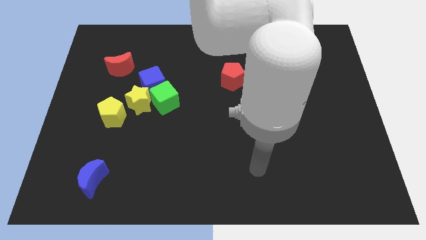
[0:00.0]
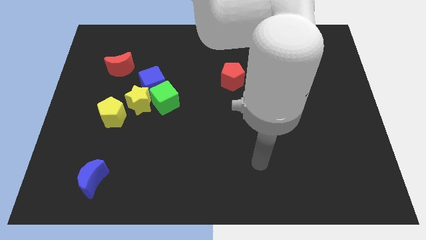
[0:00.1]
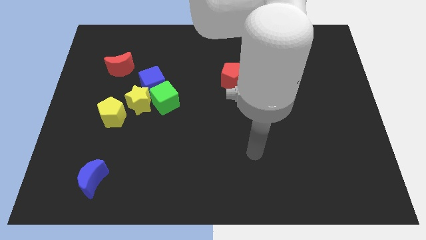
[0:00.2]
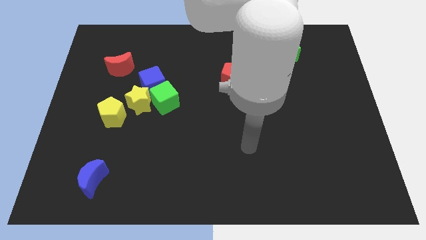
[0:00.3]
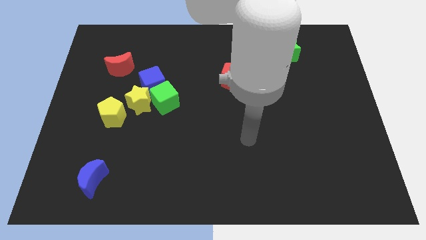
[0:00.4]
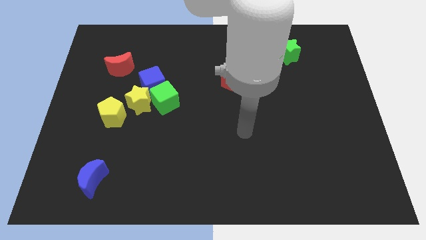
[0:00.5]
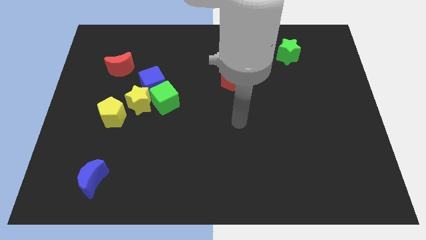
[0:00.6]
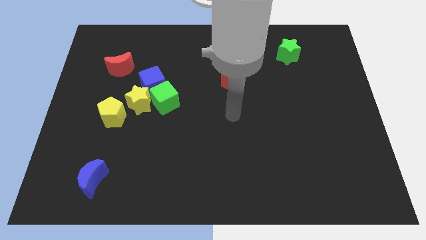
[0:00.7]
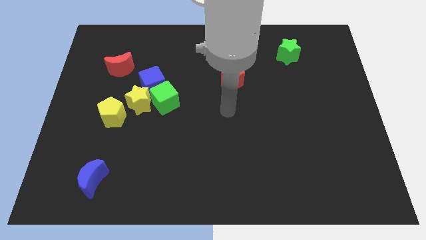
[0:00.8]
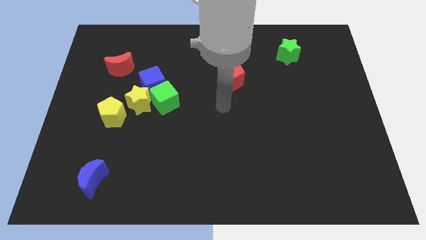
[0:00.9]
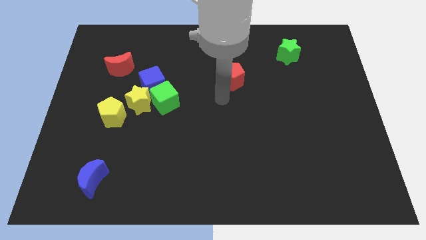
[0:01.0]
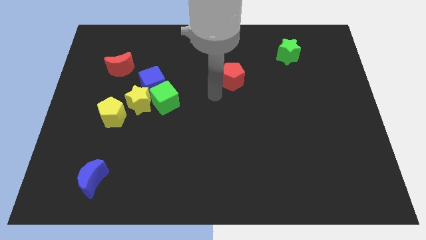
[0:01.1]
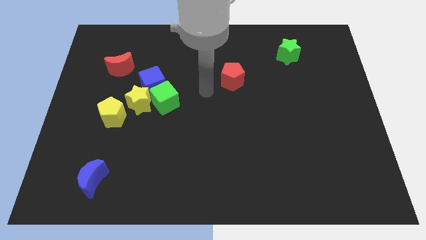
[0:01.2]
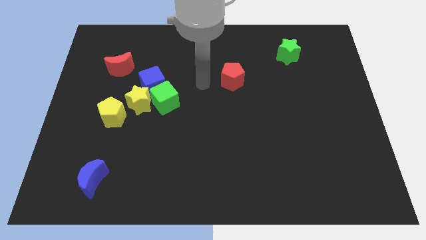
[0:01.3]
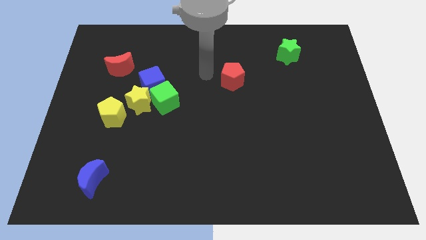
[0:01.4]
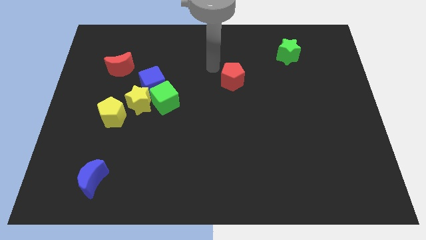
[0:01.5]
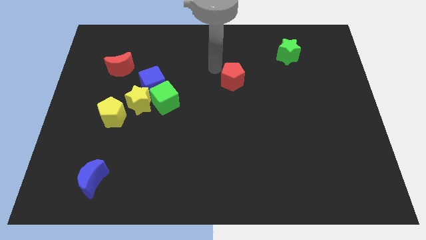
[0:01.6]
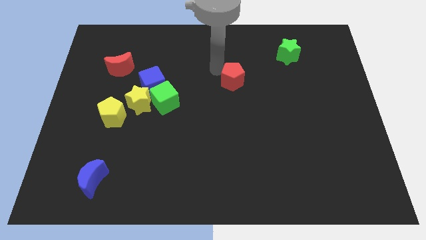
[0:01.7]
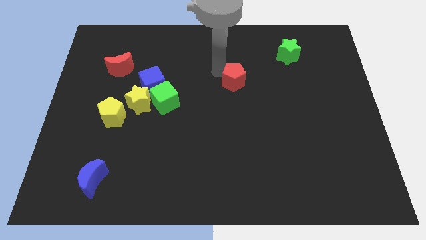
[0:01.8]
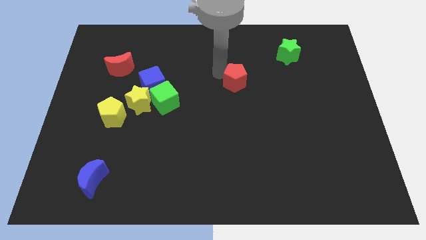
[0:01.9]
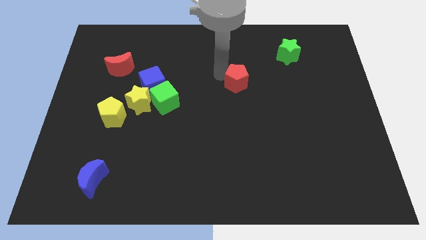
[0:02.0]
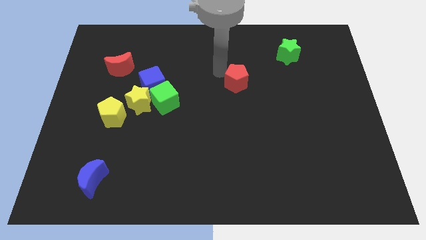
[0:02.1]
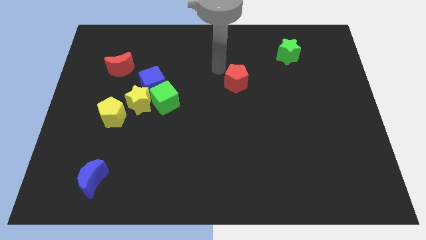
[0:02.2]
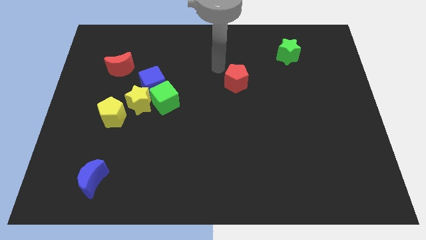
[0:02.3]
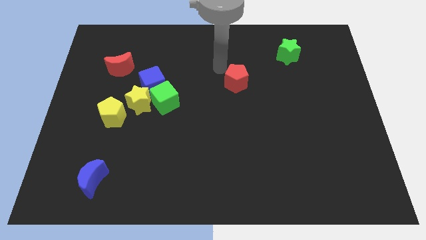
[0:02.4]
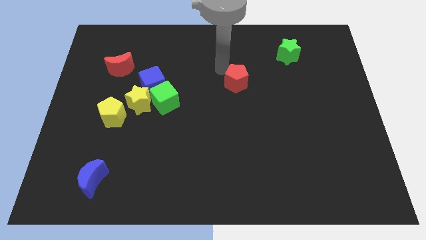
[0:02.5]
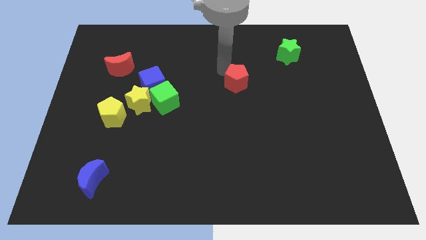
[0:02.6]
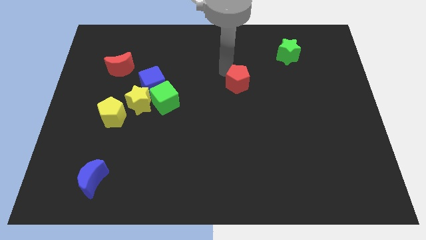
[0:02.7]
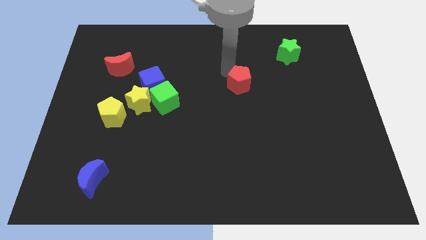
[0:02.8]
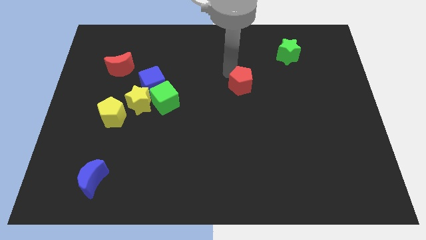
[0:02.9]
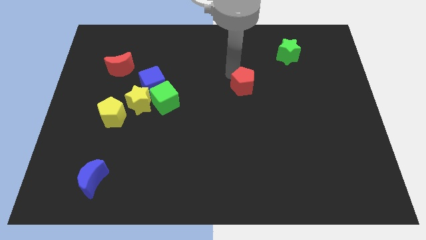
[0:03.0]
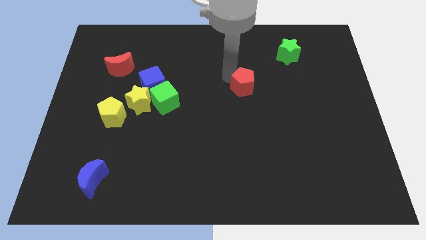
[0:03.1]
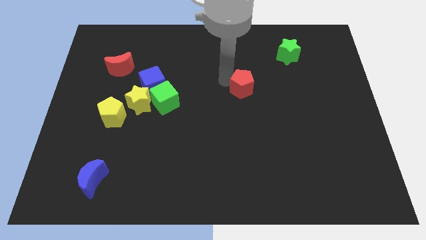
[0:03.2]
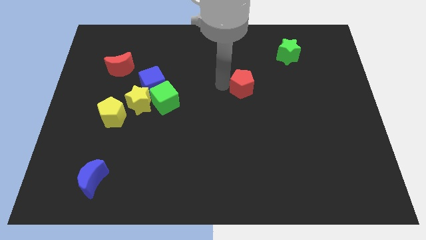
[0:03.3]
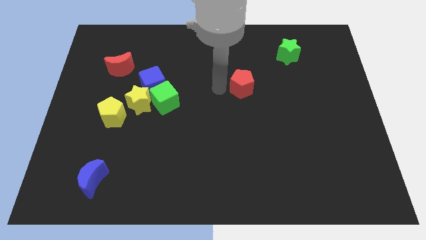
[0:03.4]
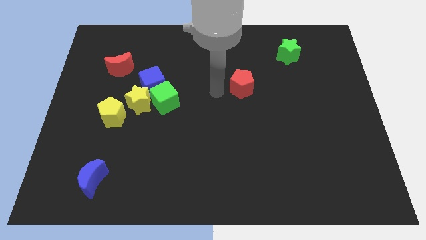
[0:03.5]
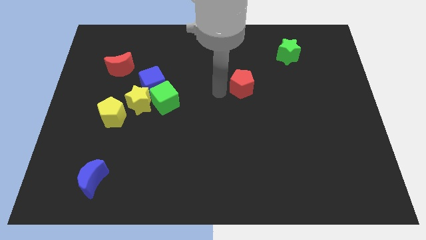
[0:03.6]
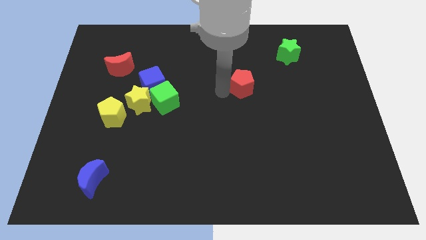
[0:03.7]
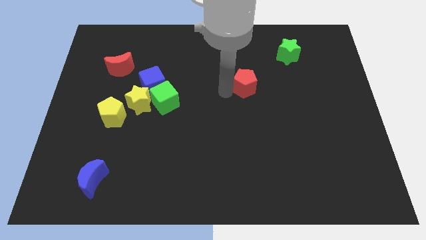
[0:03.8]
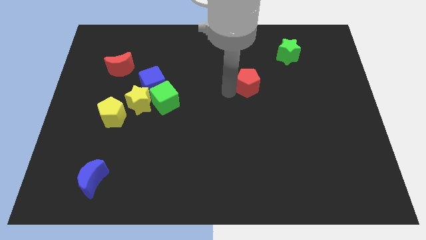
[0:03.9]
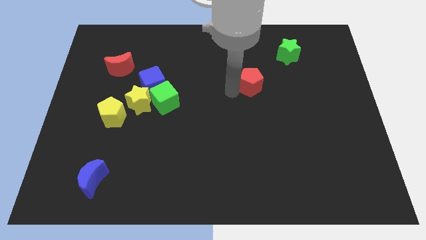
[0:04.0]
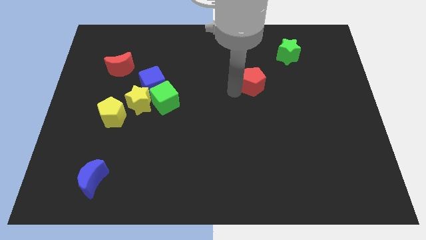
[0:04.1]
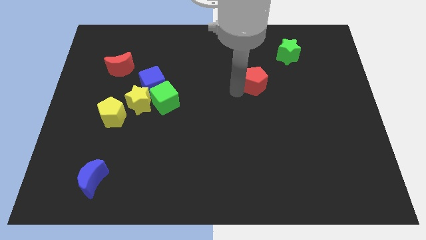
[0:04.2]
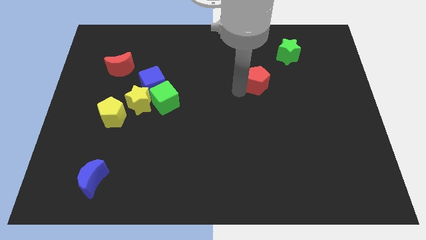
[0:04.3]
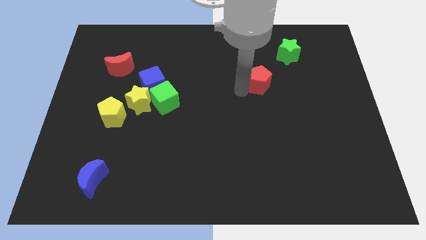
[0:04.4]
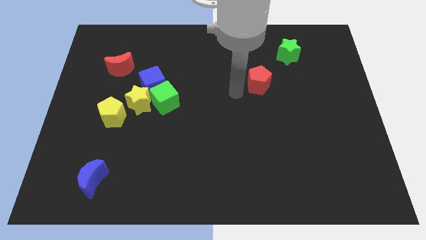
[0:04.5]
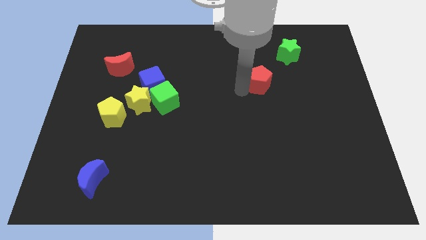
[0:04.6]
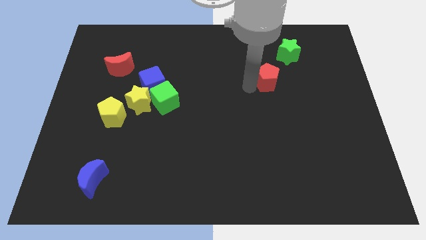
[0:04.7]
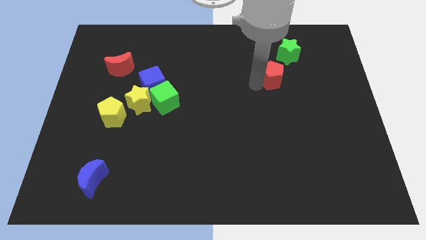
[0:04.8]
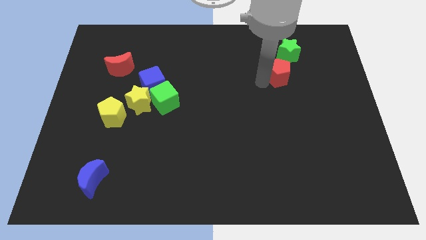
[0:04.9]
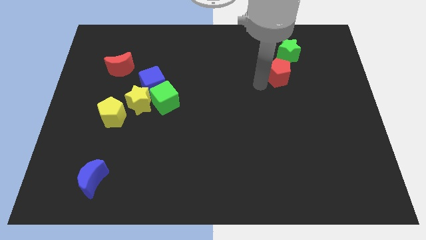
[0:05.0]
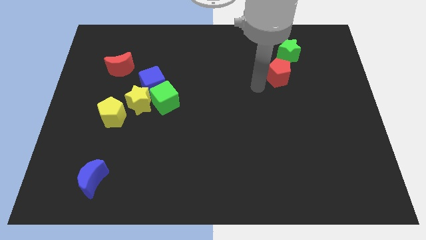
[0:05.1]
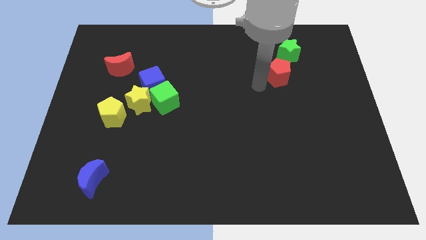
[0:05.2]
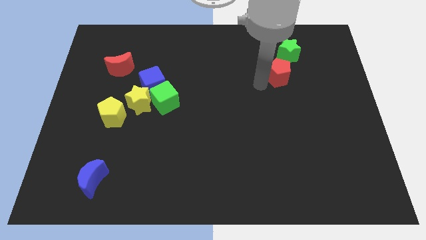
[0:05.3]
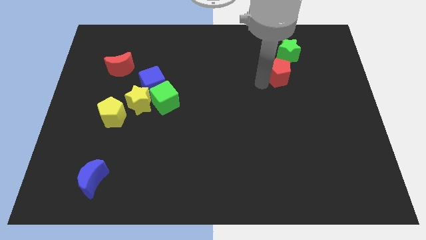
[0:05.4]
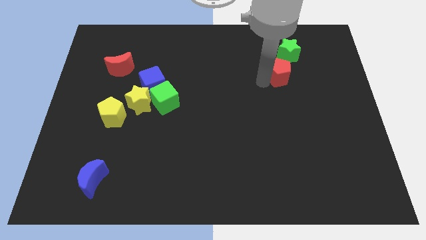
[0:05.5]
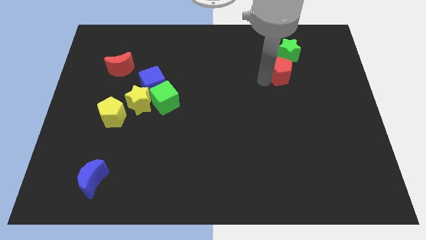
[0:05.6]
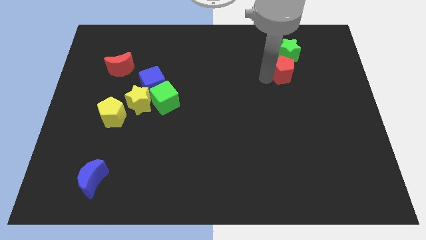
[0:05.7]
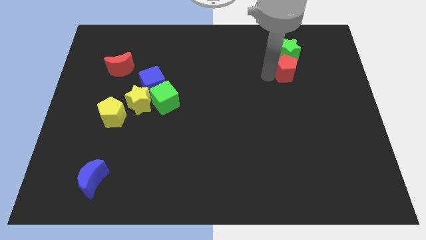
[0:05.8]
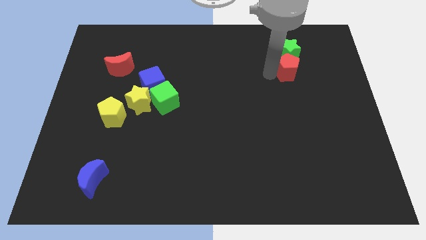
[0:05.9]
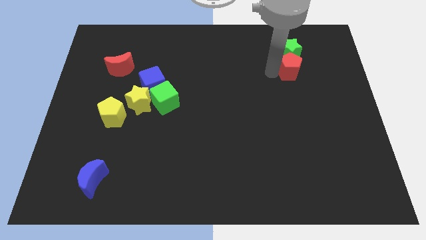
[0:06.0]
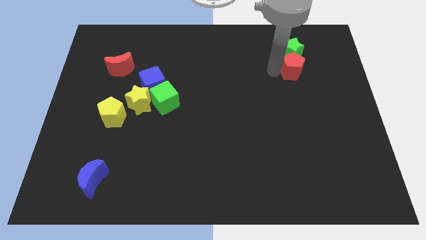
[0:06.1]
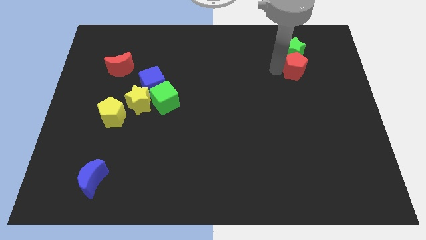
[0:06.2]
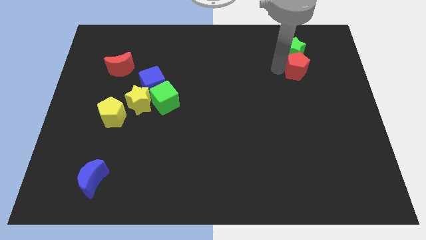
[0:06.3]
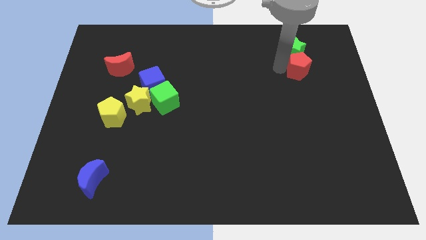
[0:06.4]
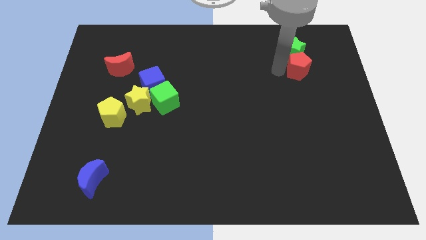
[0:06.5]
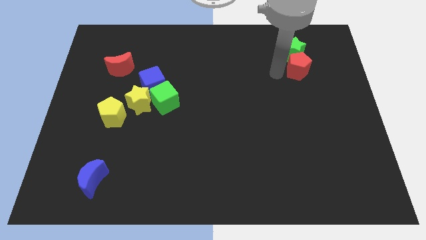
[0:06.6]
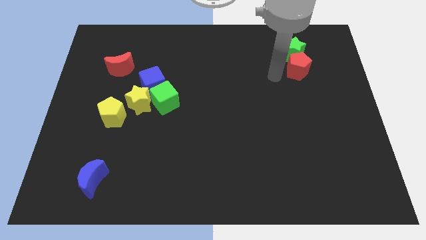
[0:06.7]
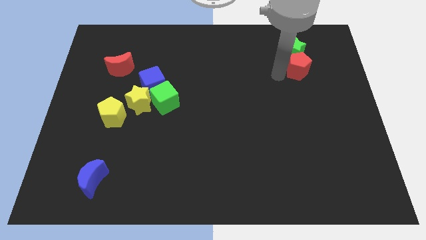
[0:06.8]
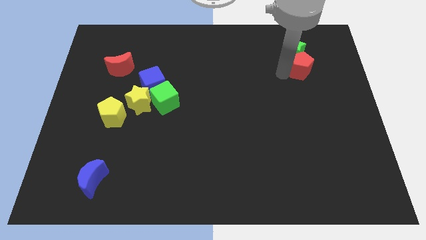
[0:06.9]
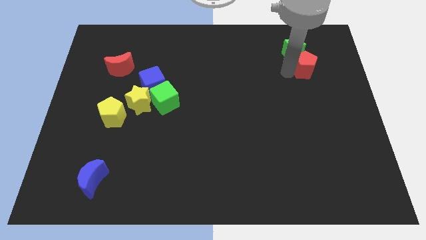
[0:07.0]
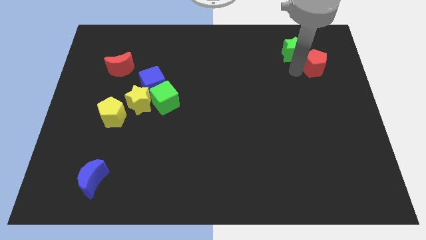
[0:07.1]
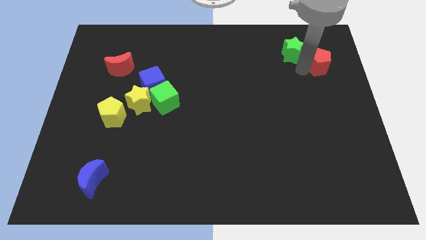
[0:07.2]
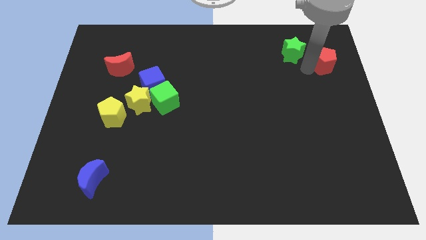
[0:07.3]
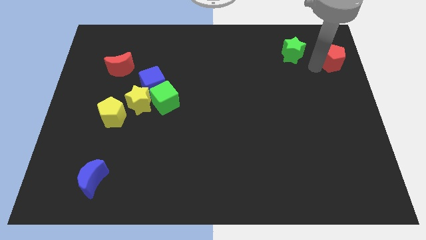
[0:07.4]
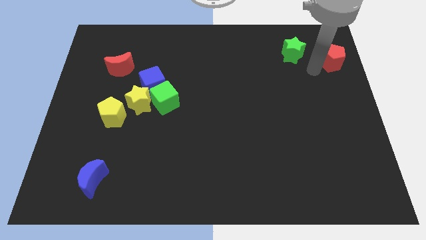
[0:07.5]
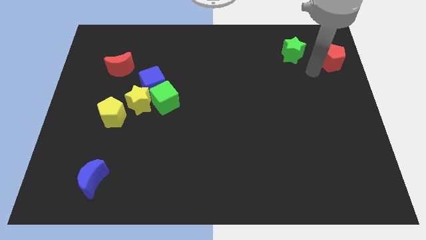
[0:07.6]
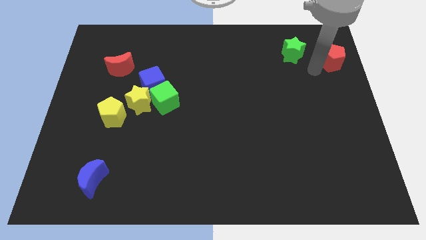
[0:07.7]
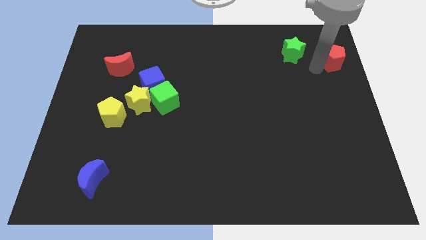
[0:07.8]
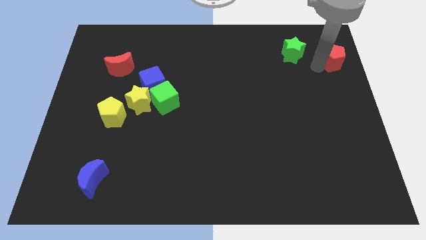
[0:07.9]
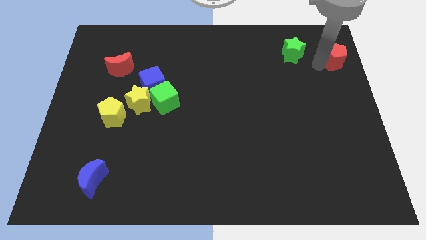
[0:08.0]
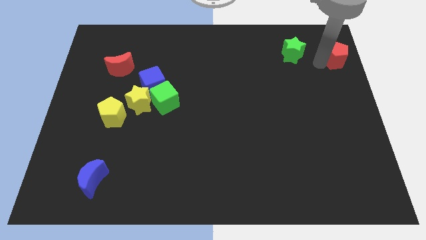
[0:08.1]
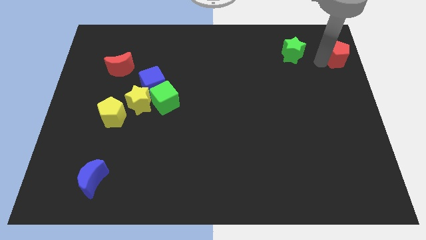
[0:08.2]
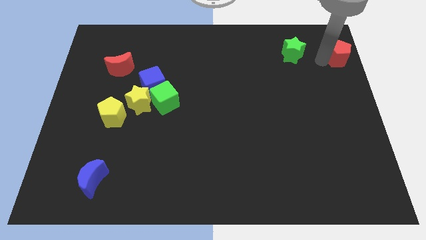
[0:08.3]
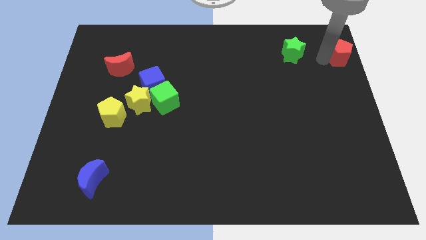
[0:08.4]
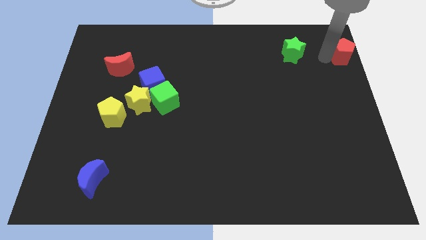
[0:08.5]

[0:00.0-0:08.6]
push the red pentagon to the top right
